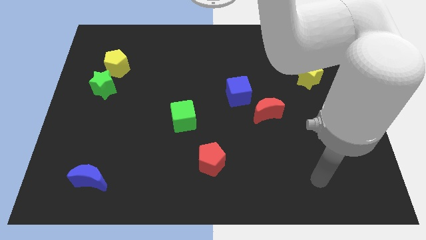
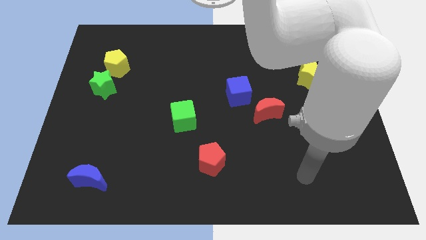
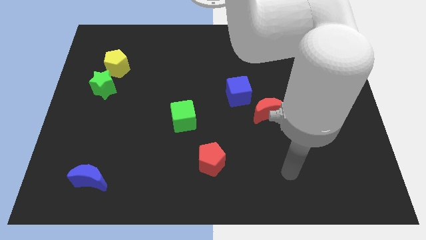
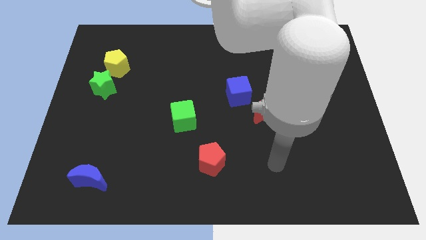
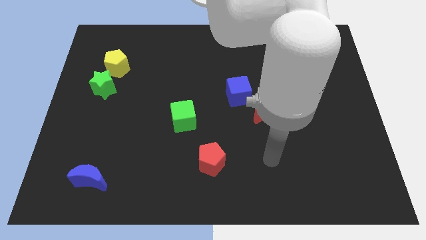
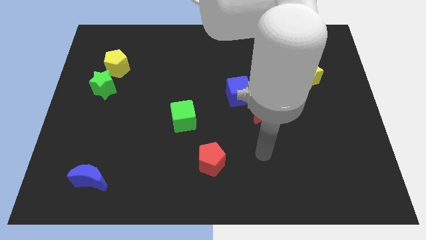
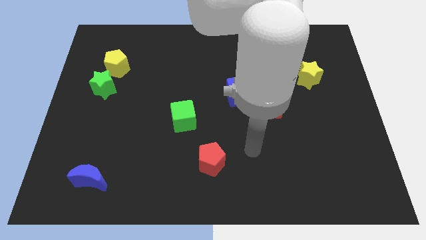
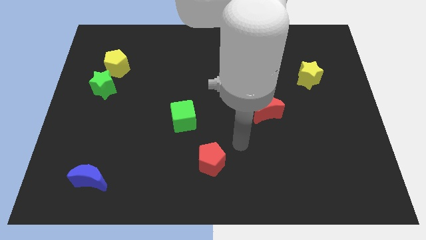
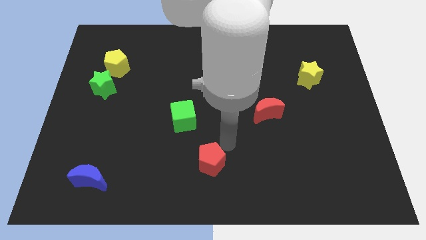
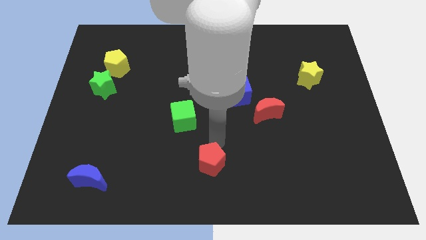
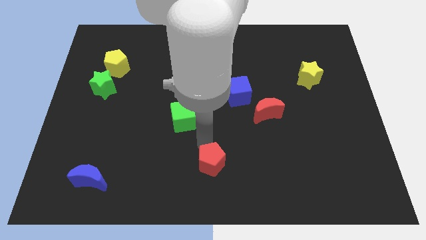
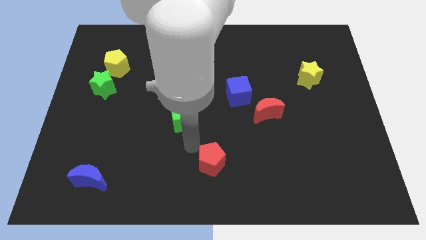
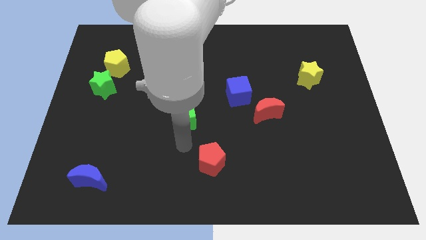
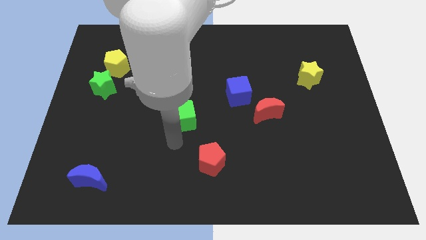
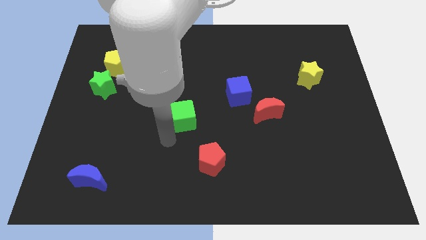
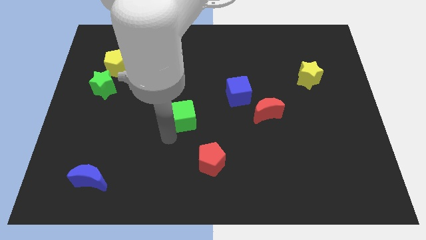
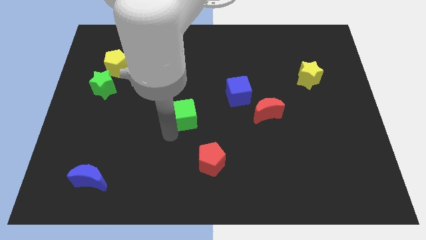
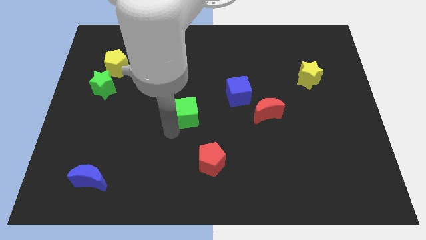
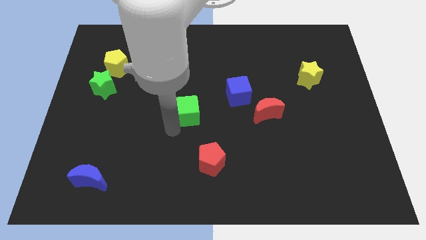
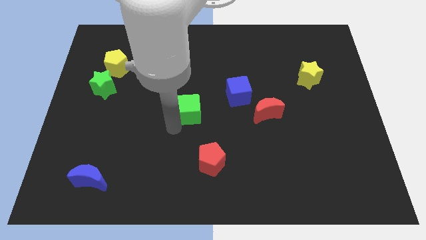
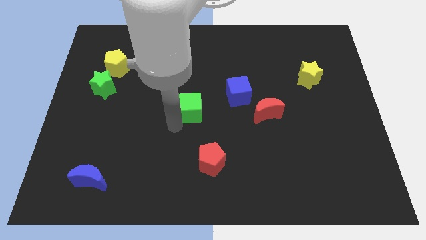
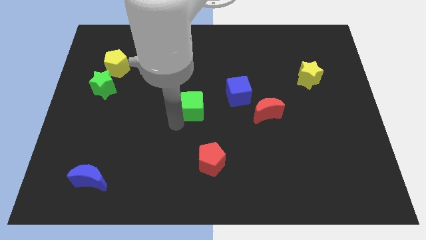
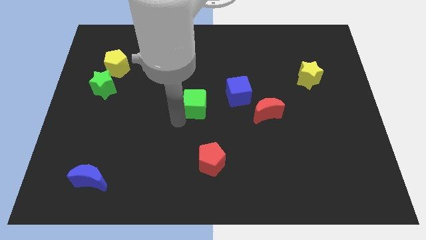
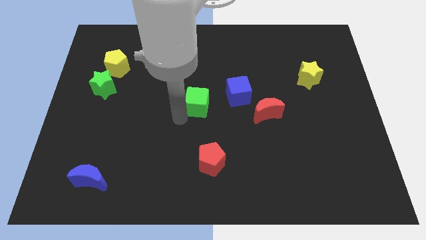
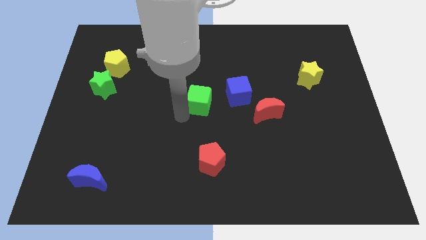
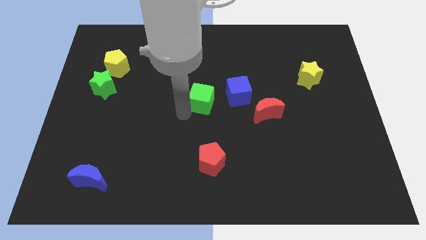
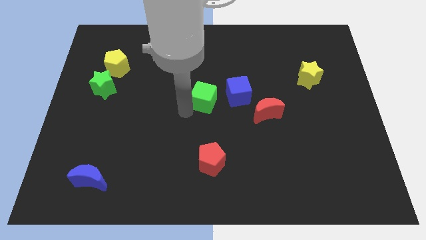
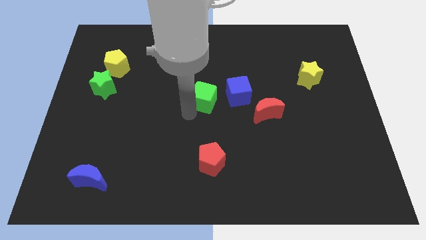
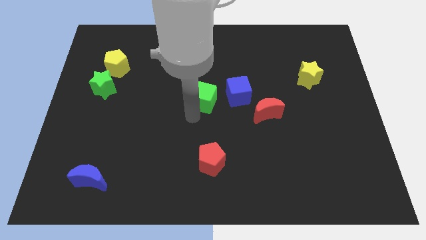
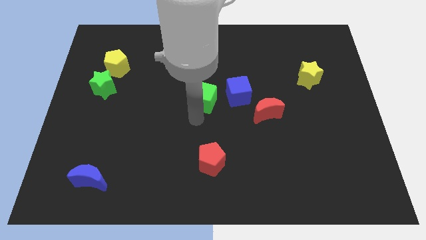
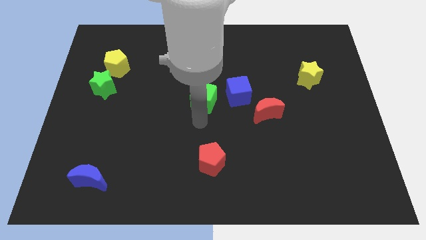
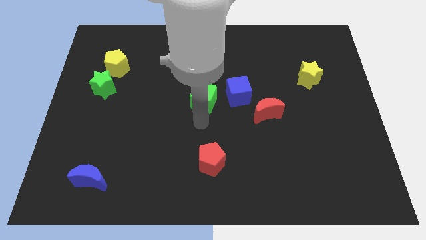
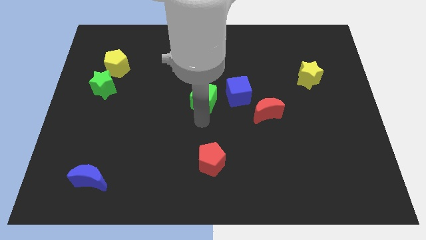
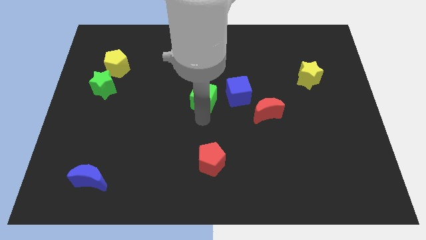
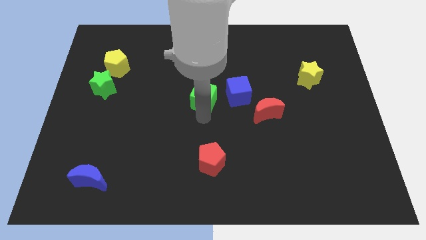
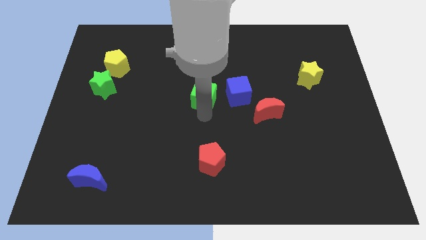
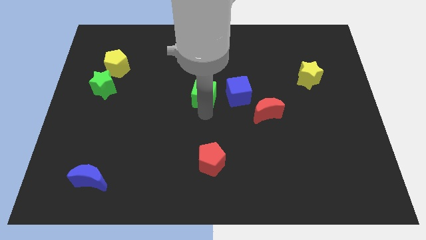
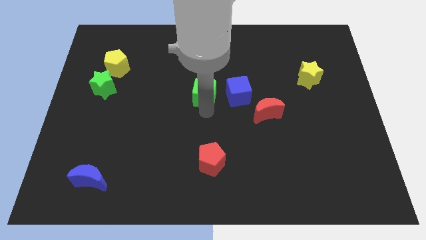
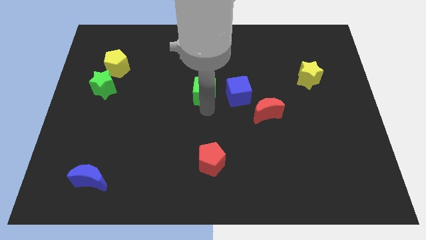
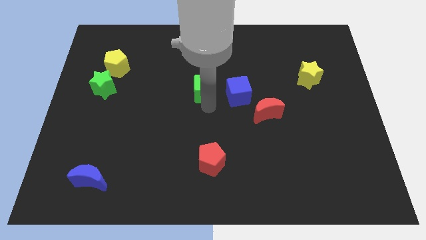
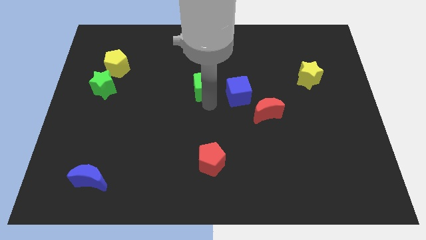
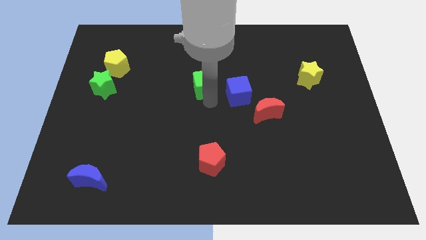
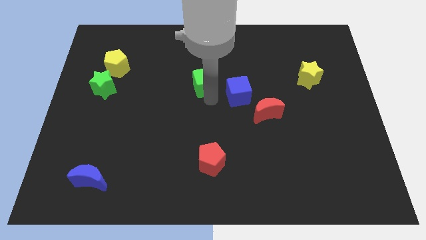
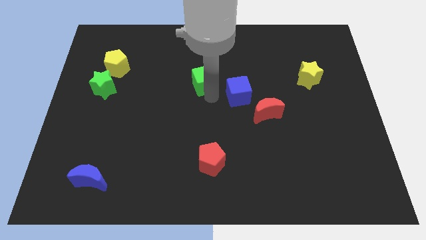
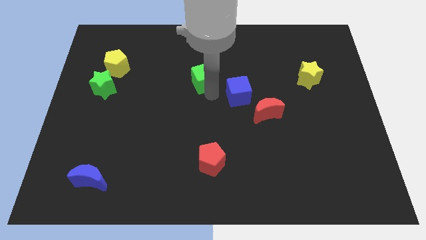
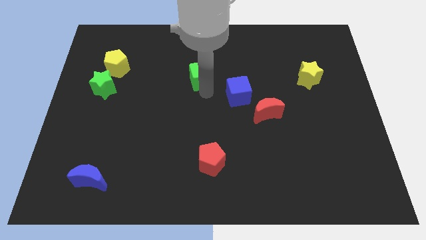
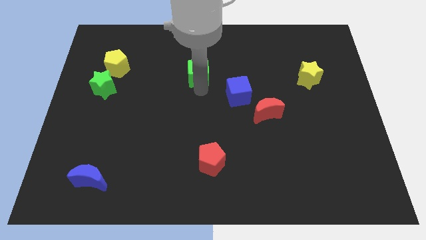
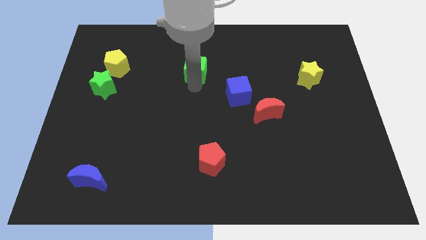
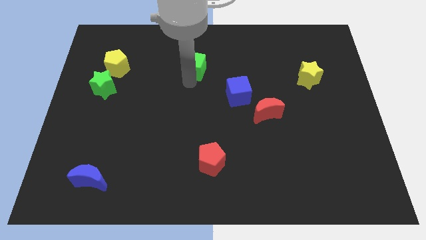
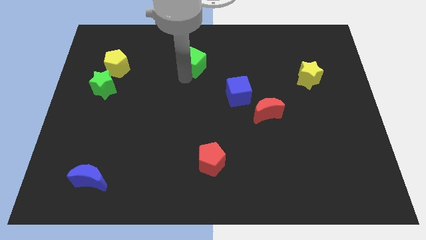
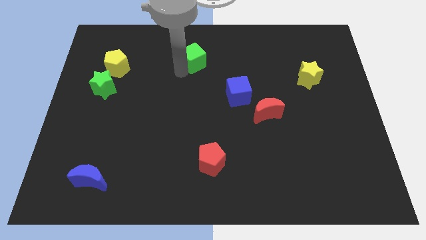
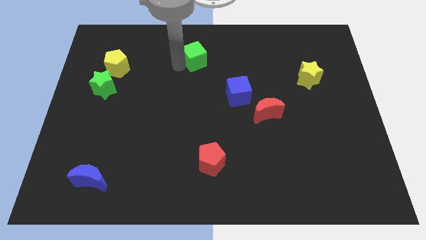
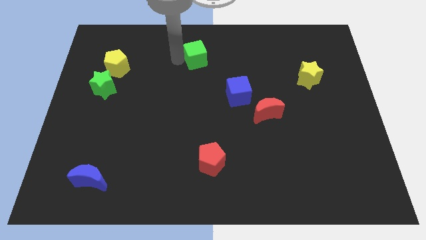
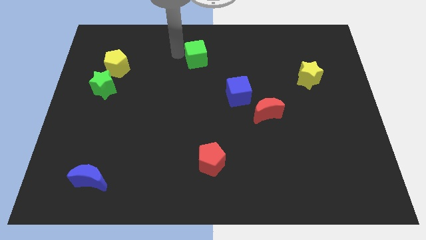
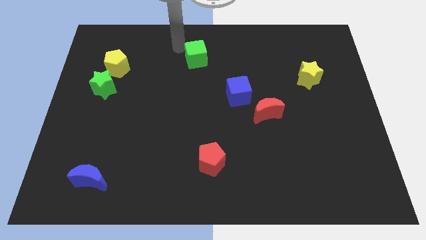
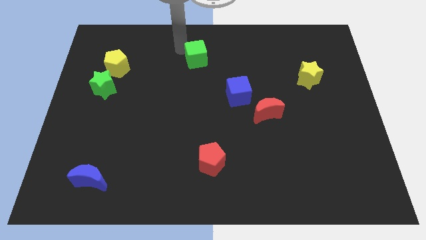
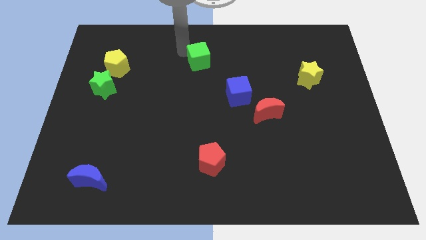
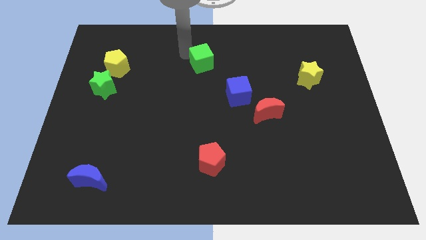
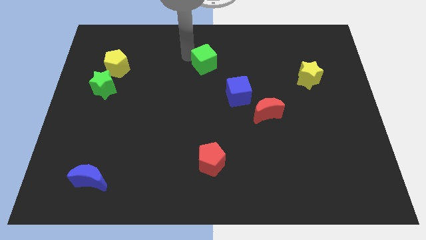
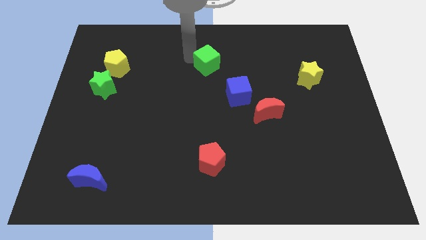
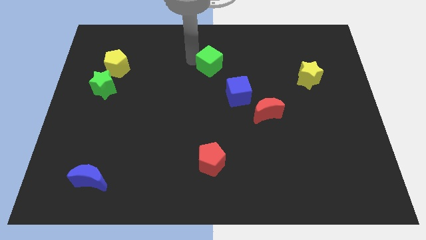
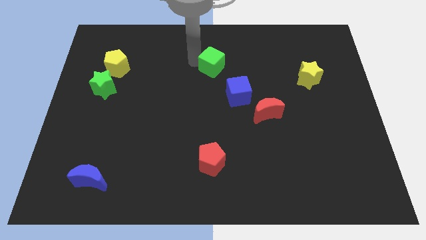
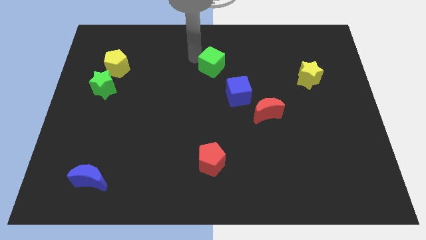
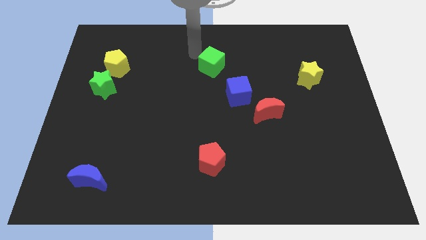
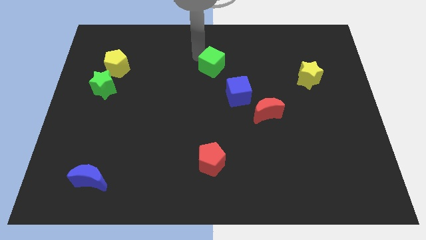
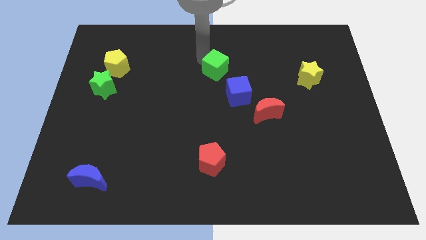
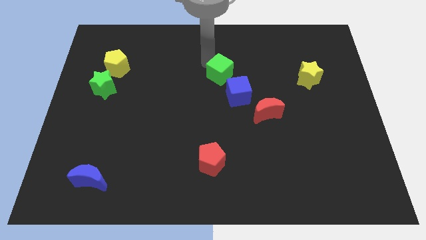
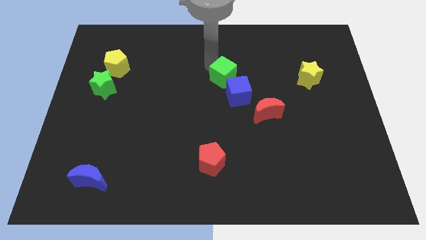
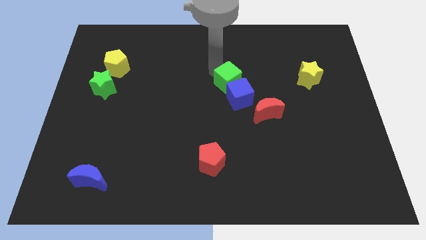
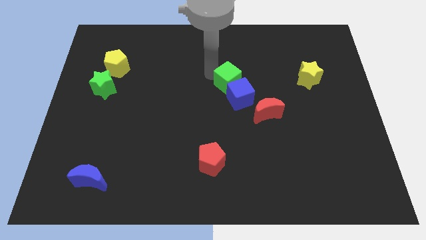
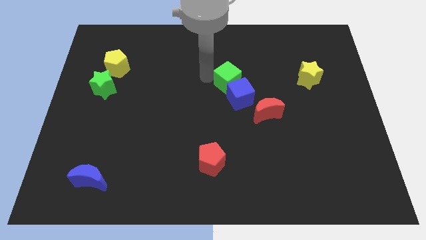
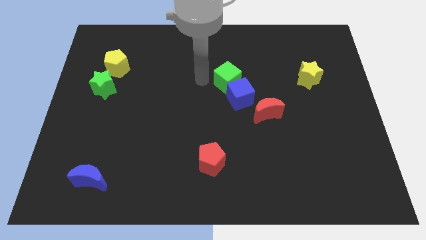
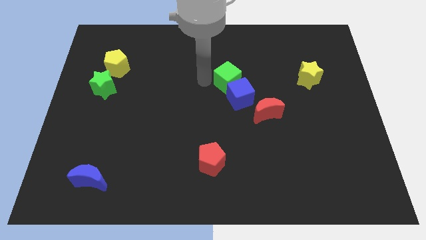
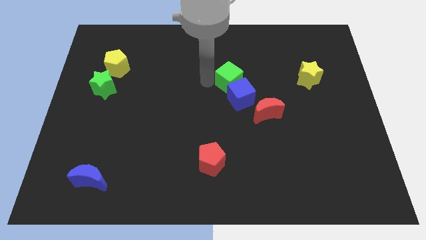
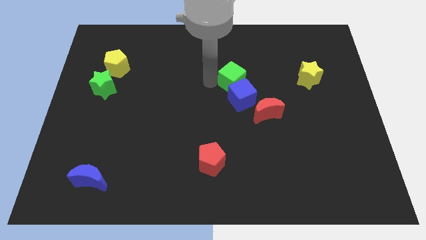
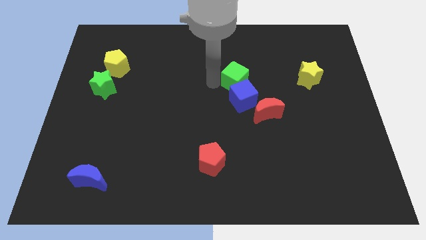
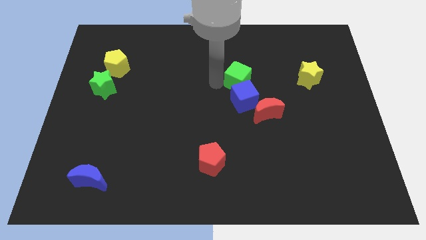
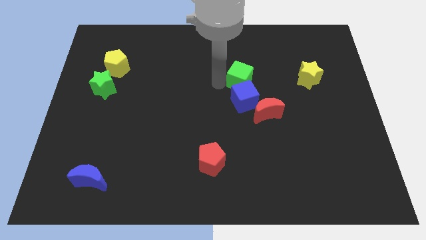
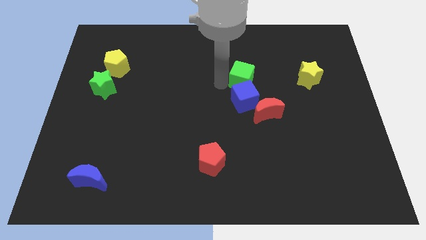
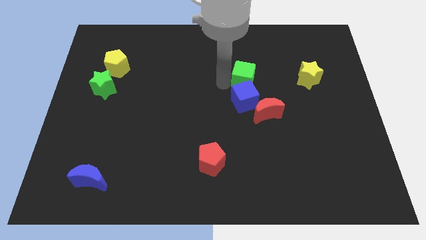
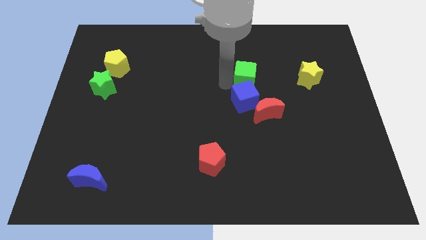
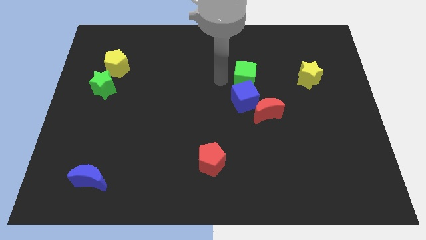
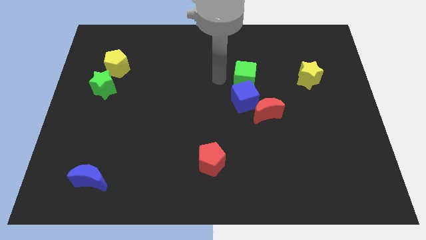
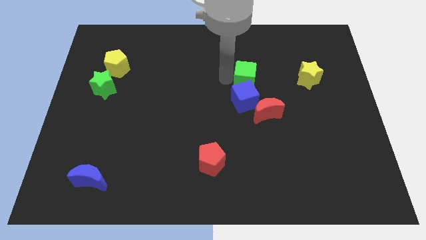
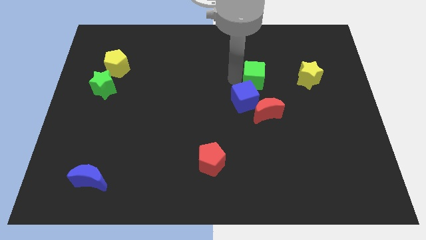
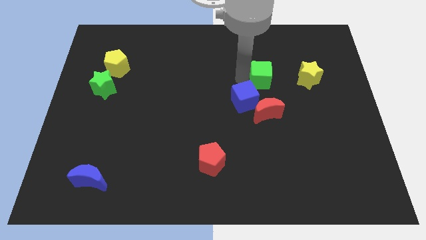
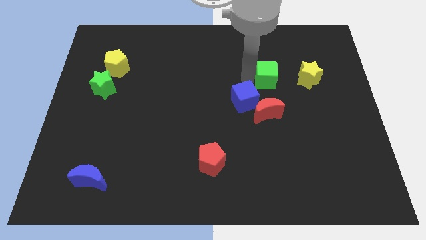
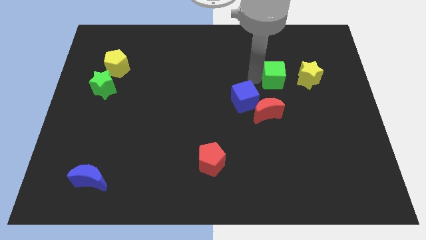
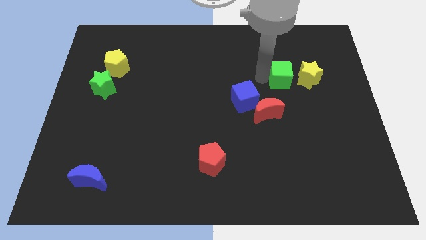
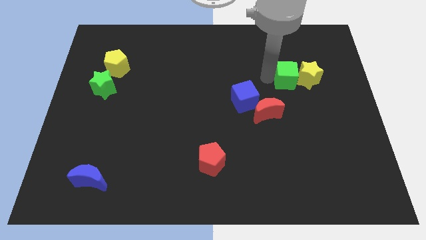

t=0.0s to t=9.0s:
push the green cube next to the yellow star
